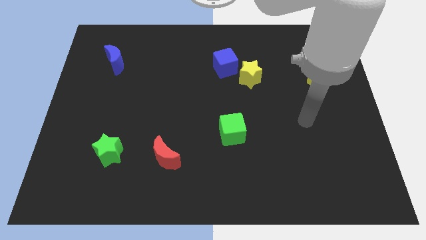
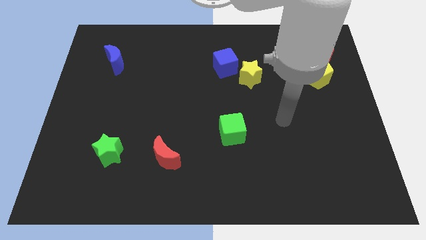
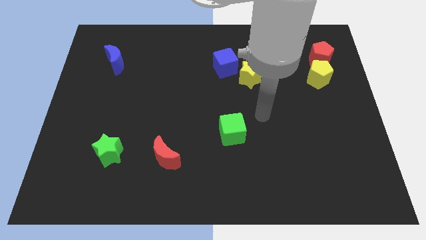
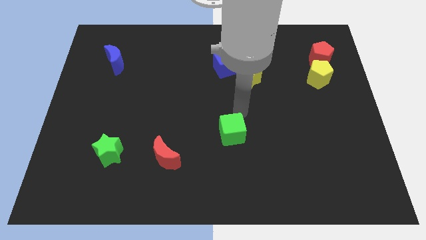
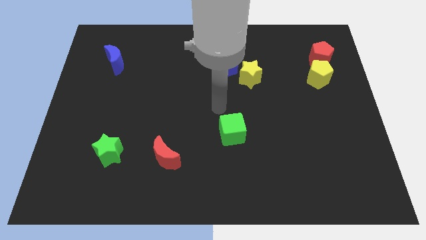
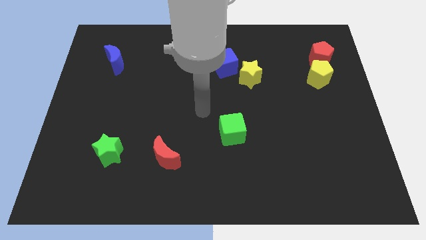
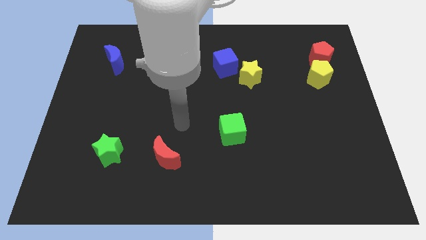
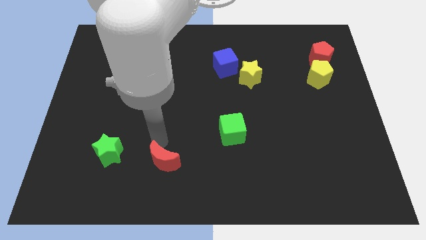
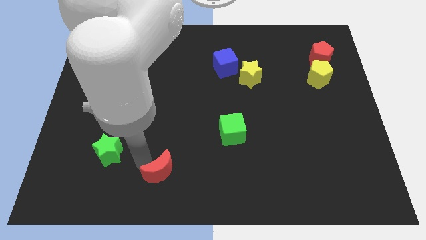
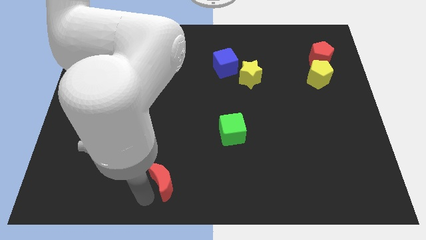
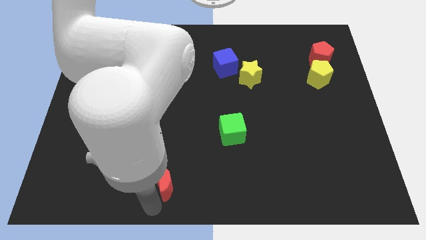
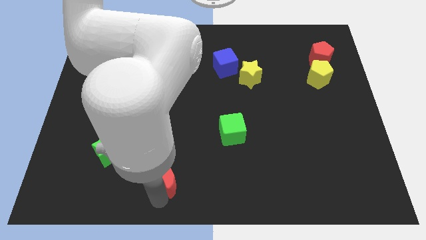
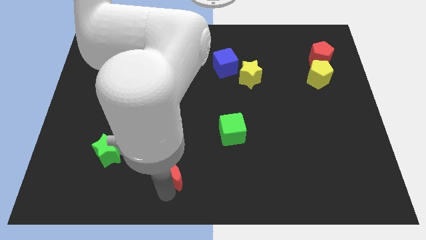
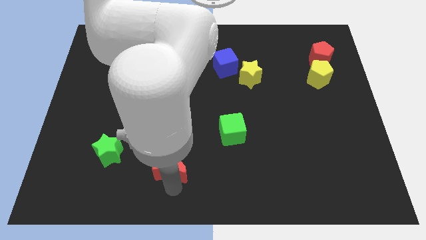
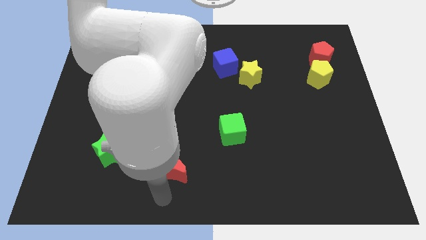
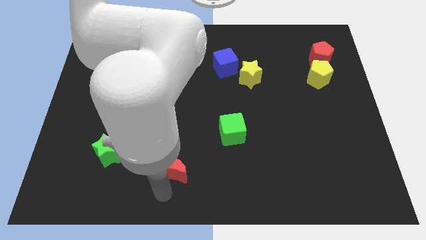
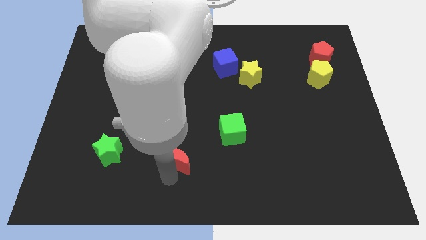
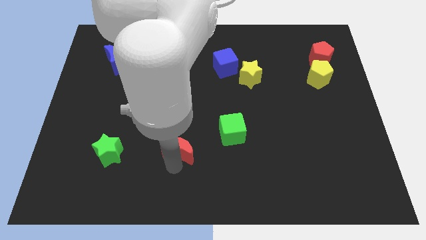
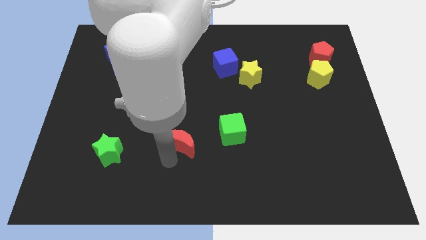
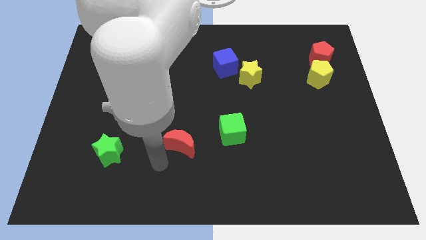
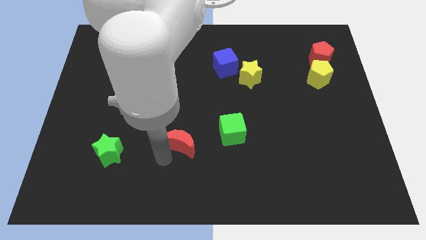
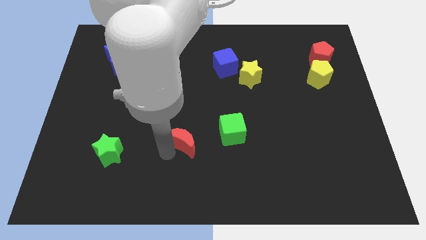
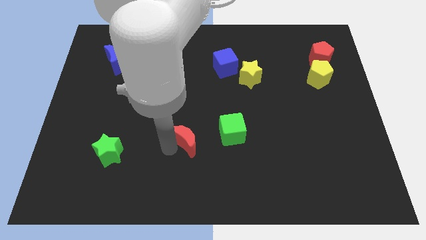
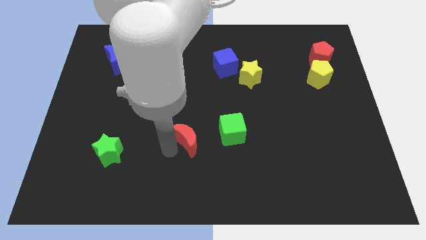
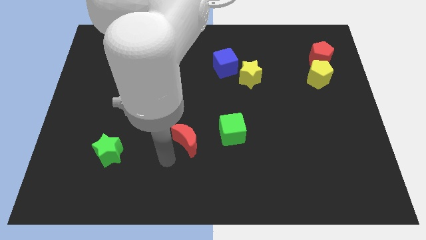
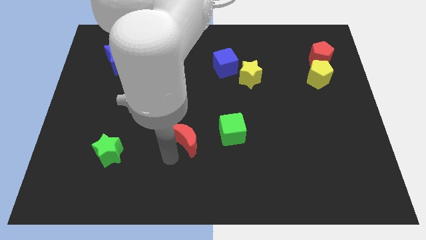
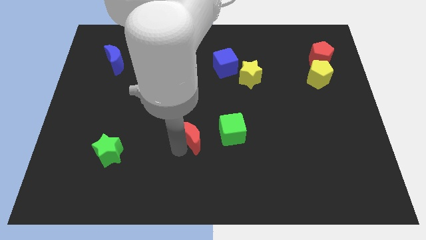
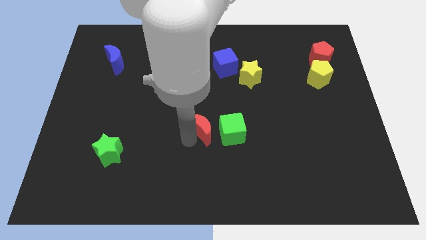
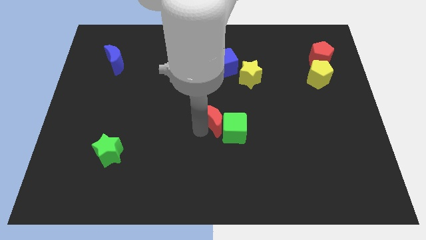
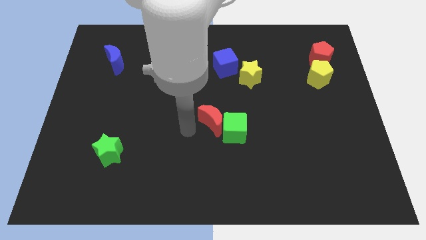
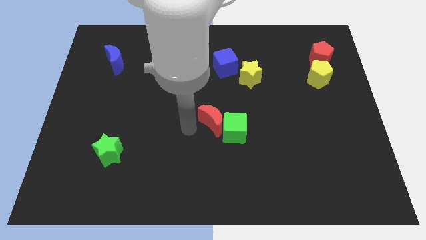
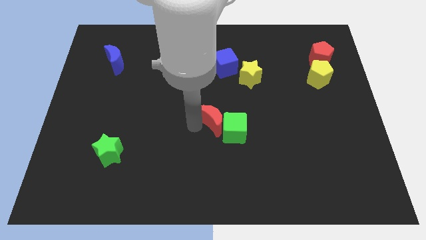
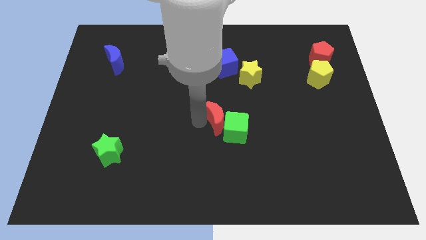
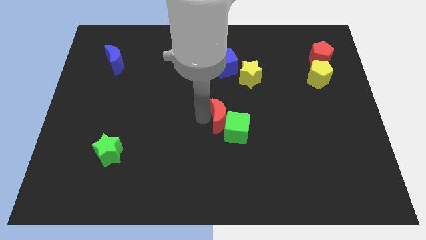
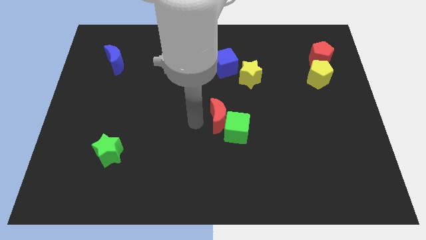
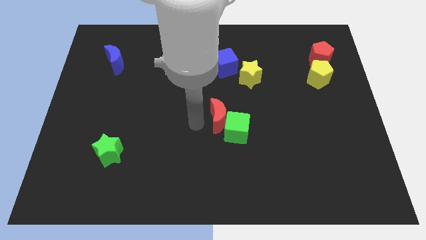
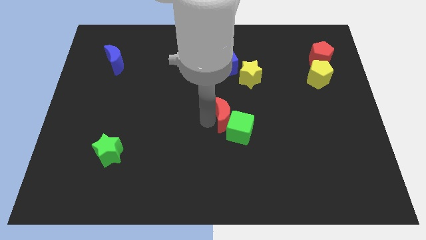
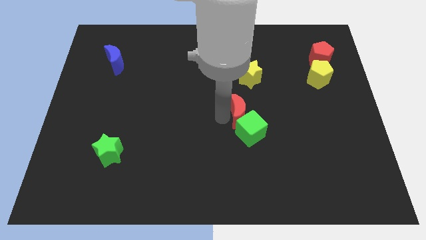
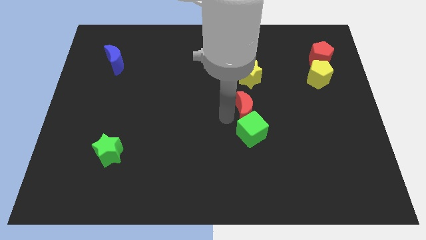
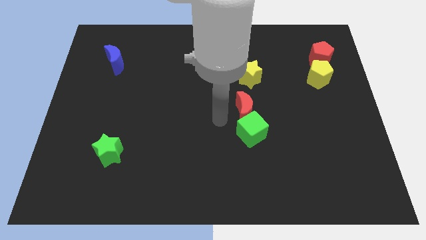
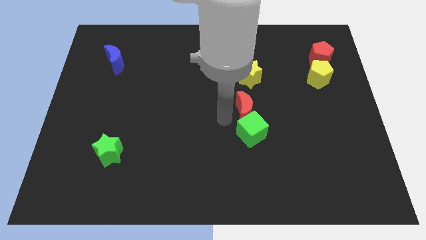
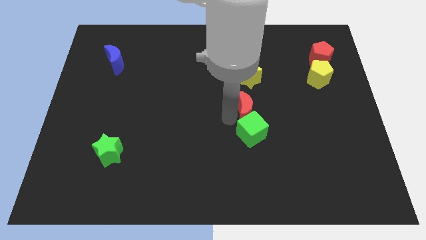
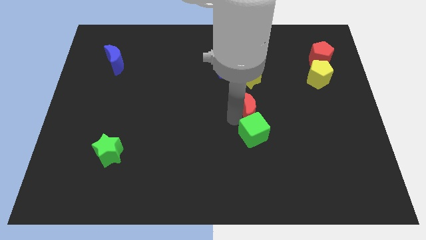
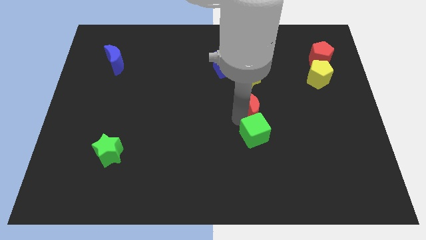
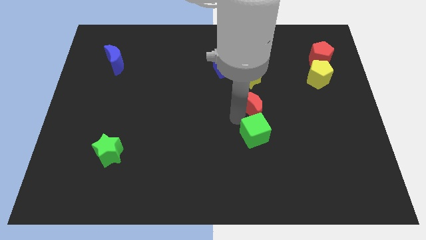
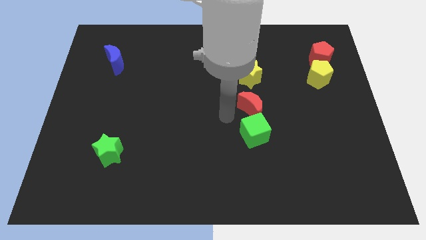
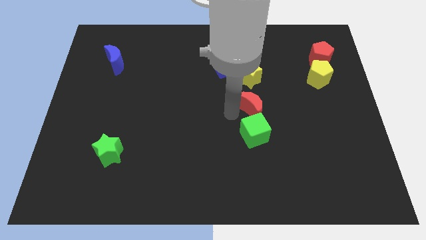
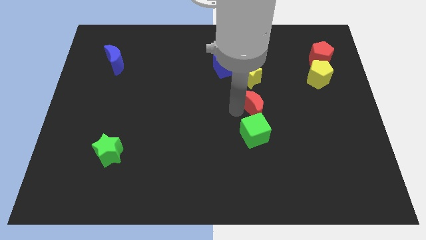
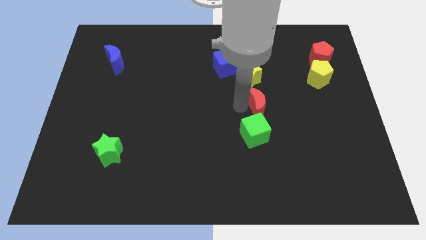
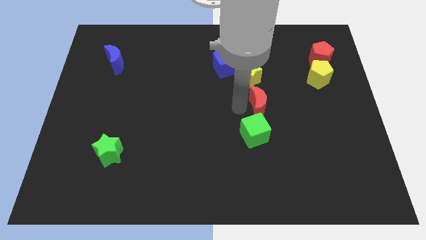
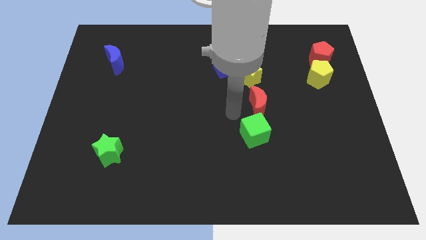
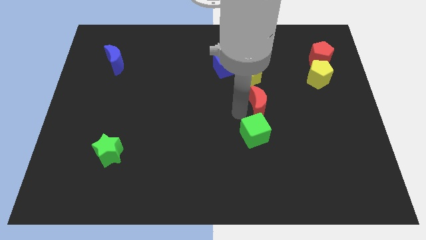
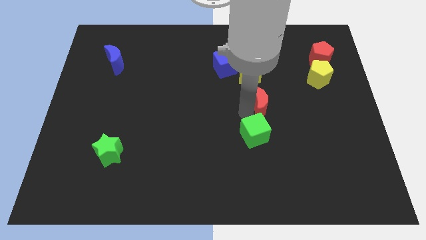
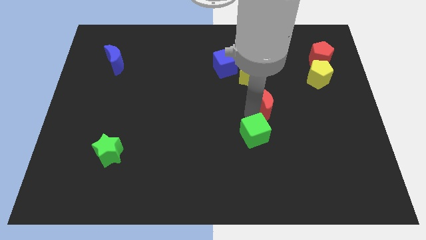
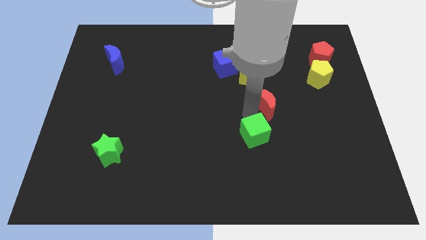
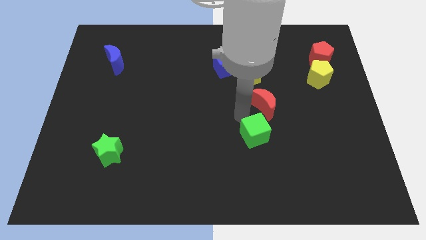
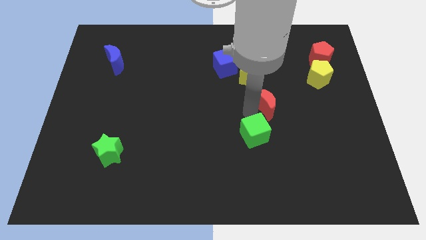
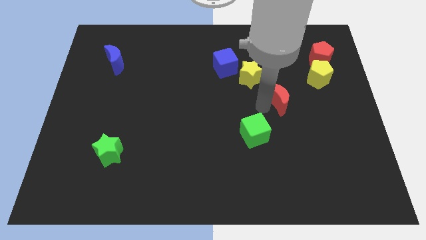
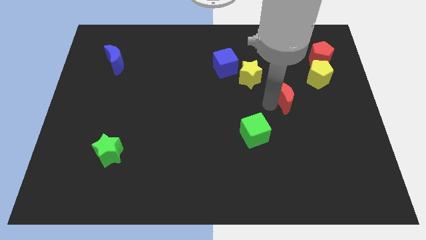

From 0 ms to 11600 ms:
slide the red moon diagonally down and to the left of the yellow pentagon
